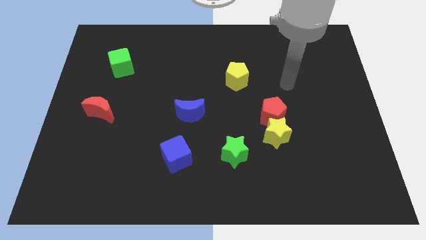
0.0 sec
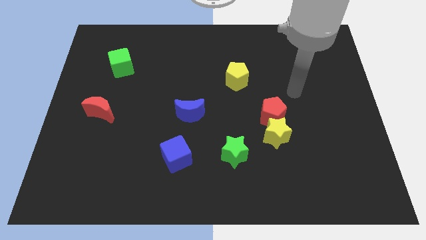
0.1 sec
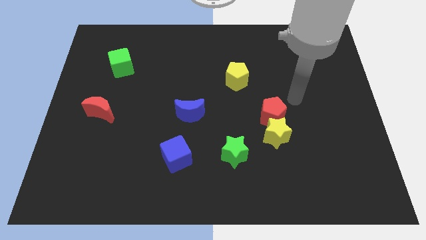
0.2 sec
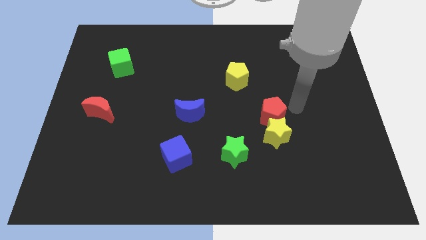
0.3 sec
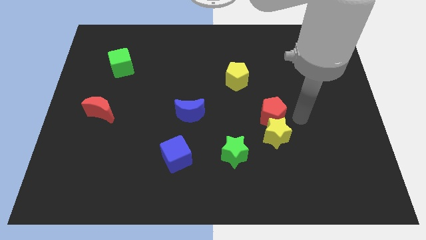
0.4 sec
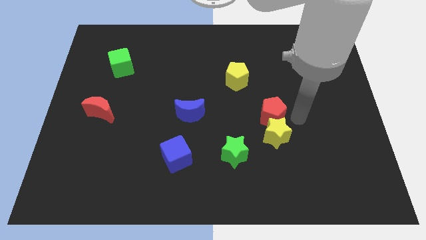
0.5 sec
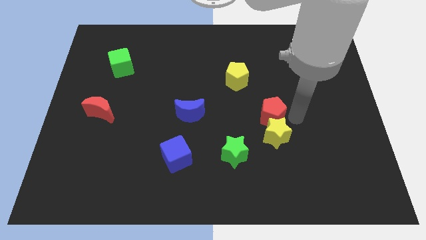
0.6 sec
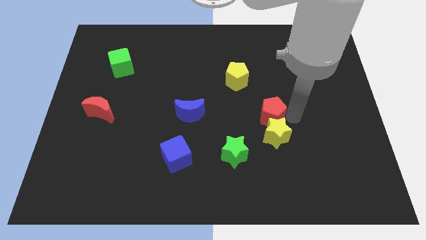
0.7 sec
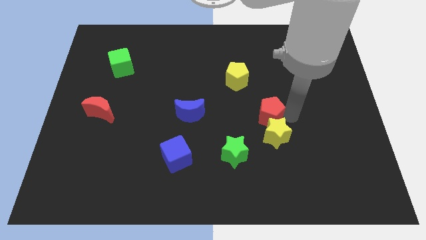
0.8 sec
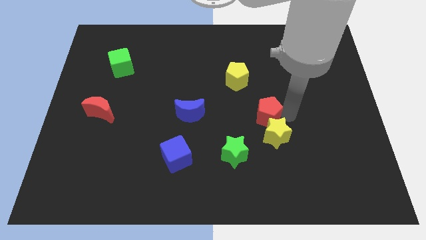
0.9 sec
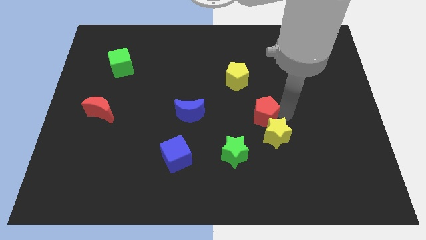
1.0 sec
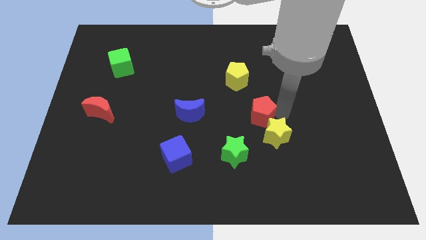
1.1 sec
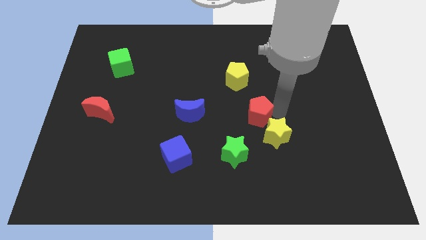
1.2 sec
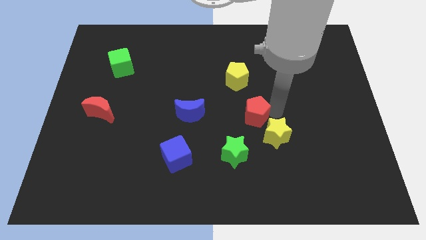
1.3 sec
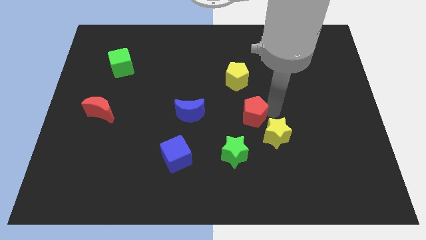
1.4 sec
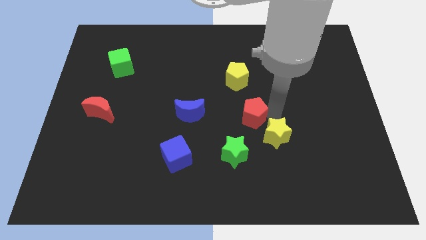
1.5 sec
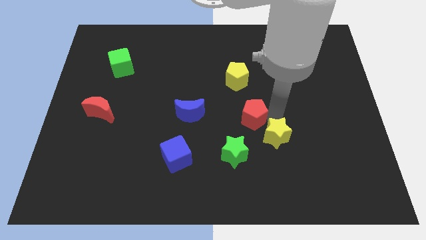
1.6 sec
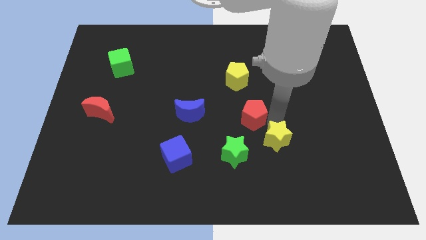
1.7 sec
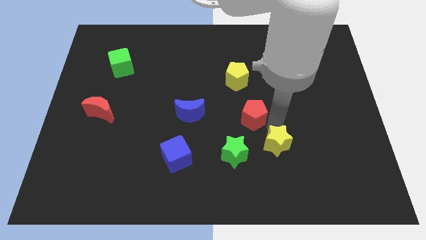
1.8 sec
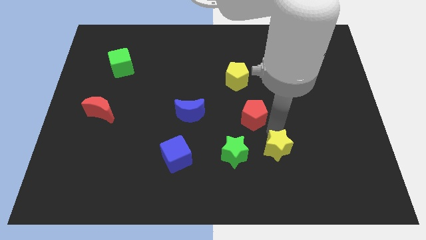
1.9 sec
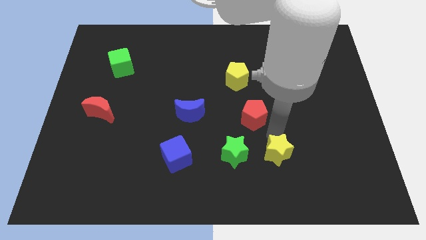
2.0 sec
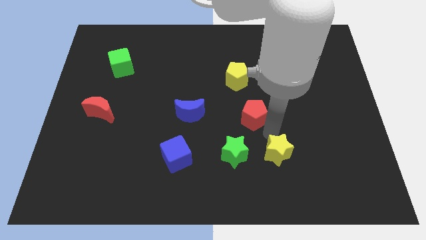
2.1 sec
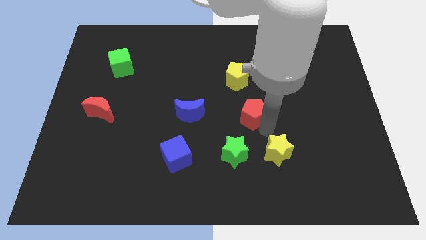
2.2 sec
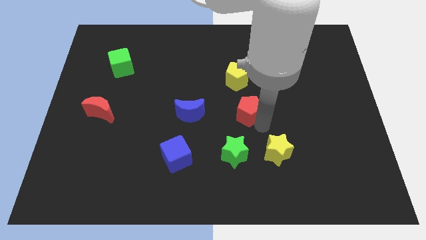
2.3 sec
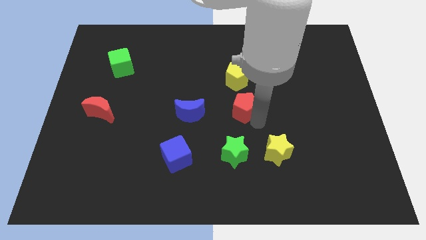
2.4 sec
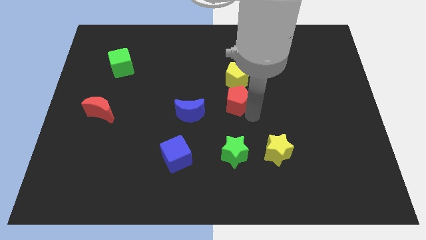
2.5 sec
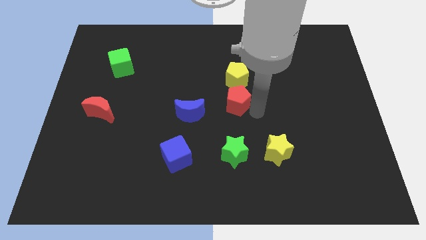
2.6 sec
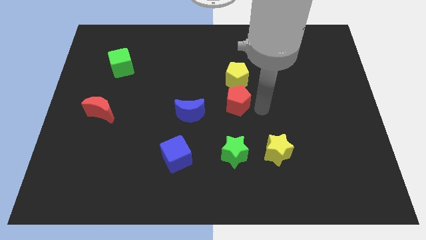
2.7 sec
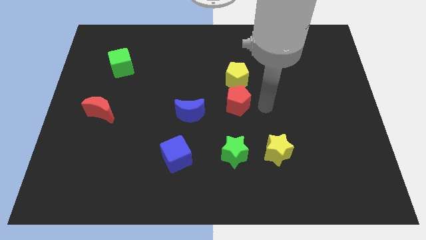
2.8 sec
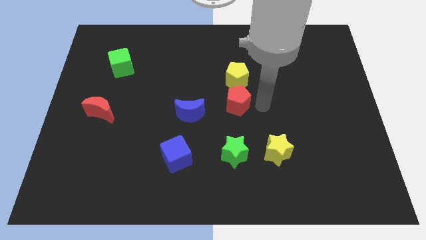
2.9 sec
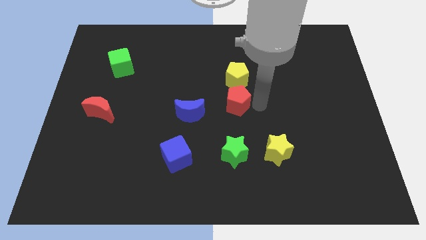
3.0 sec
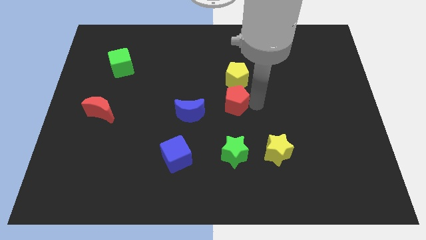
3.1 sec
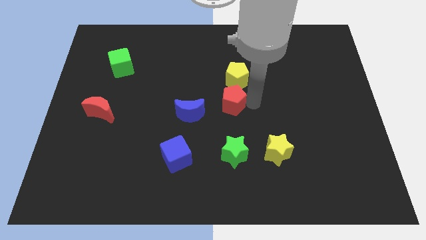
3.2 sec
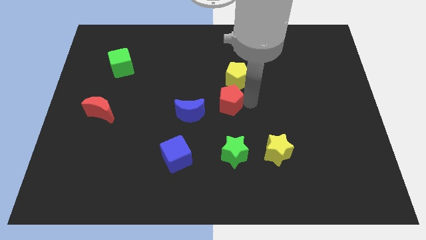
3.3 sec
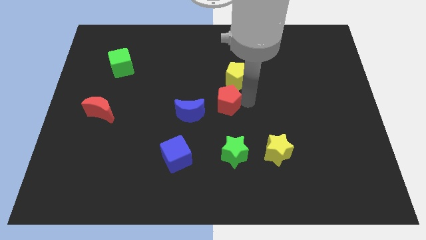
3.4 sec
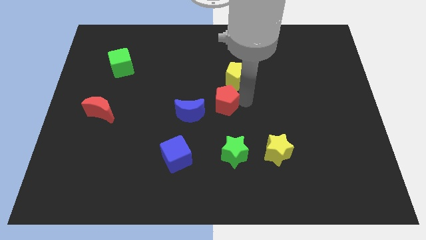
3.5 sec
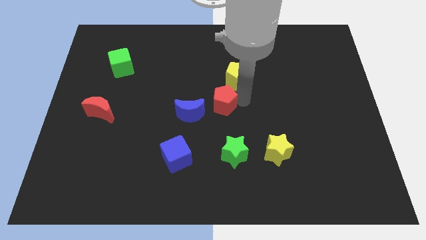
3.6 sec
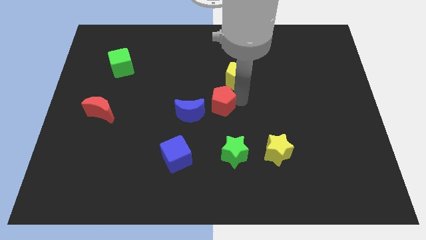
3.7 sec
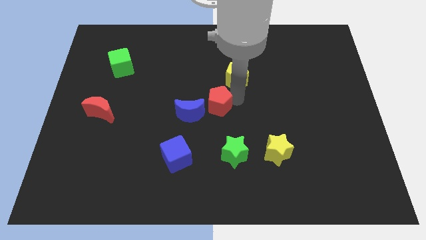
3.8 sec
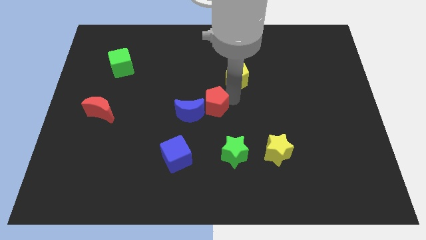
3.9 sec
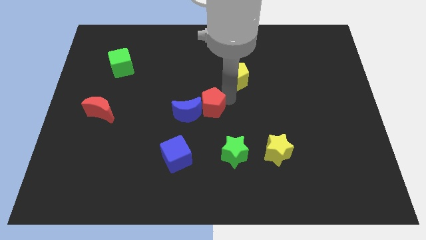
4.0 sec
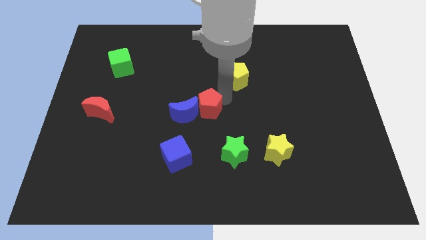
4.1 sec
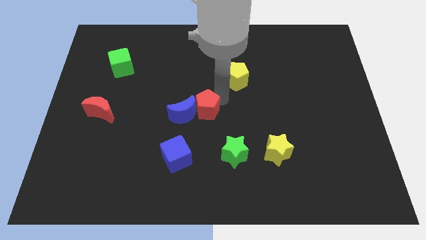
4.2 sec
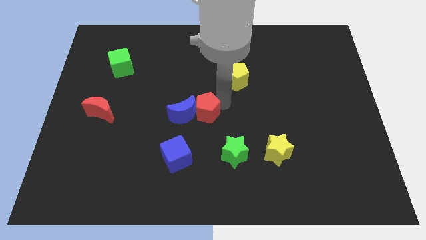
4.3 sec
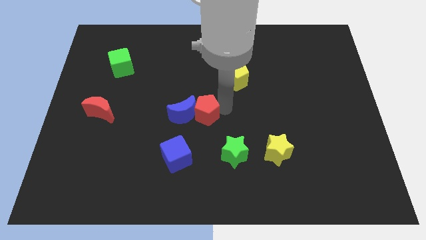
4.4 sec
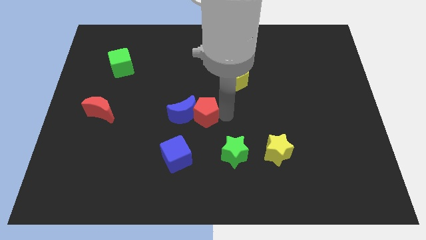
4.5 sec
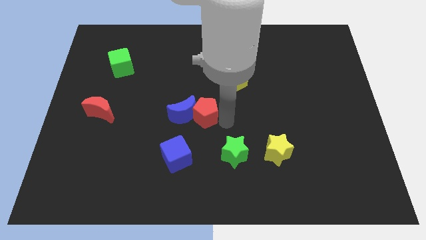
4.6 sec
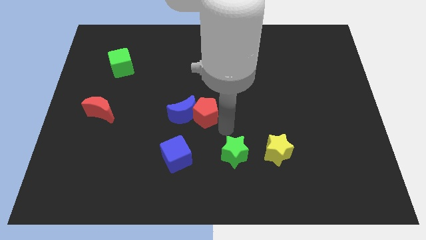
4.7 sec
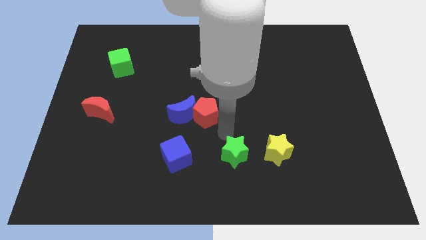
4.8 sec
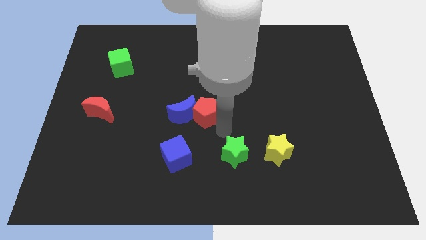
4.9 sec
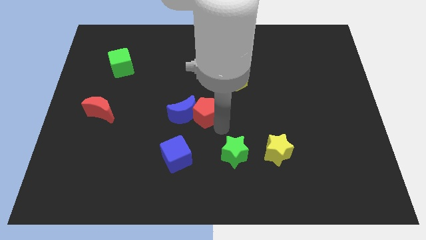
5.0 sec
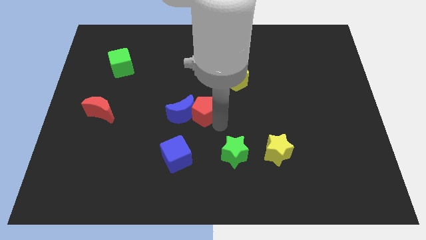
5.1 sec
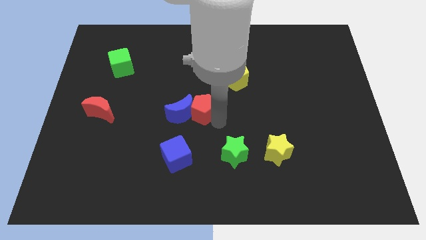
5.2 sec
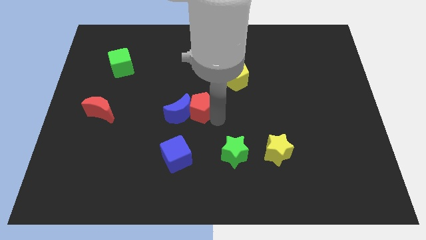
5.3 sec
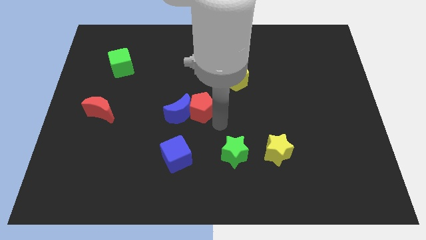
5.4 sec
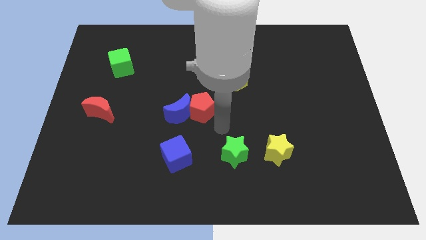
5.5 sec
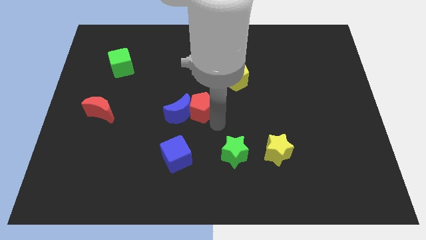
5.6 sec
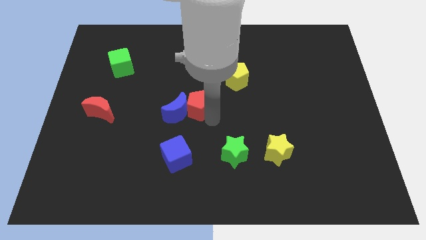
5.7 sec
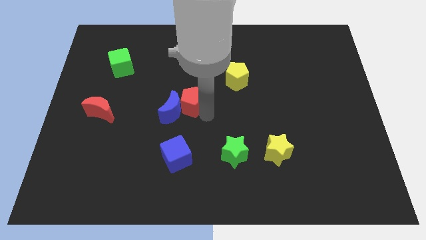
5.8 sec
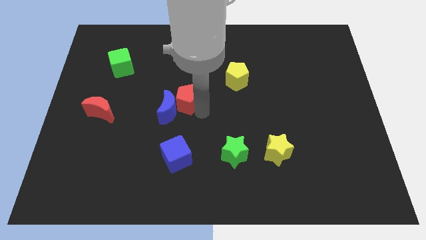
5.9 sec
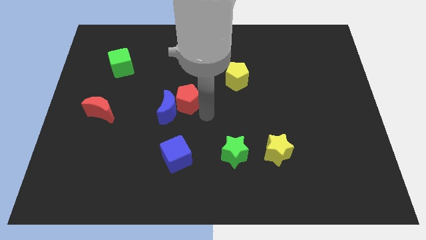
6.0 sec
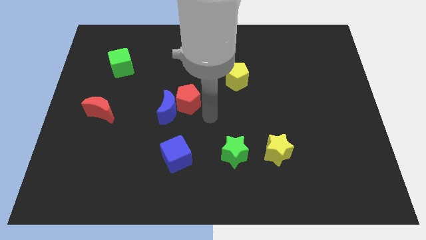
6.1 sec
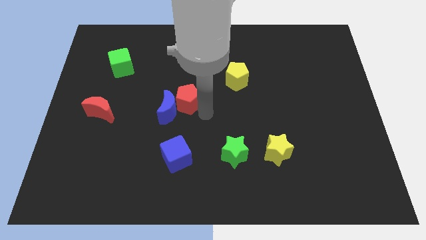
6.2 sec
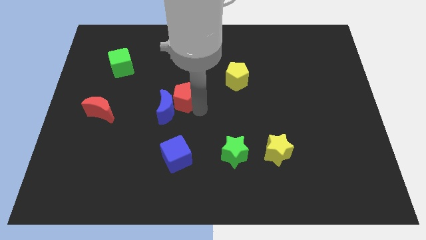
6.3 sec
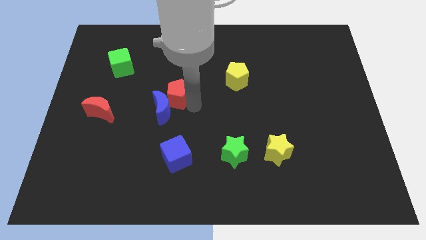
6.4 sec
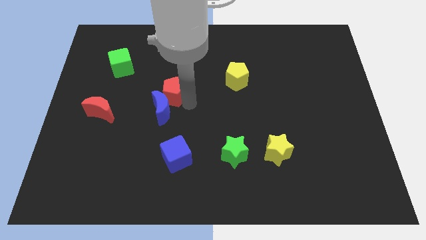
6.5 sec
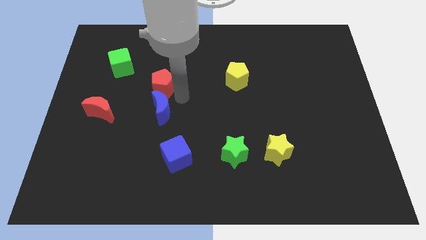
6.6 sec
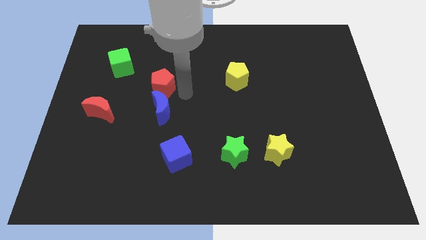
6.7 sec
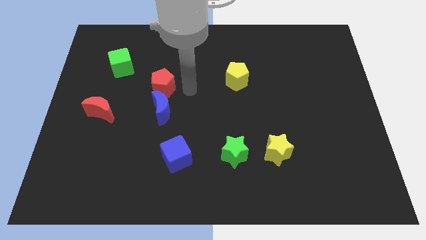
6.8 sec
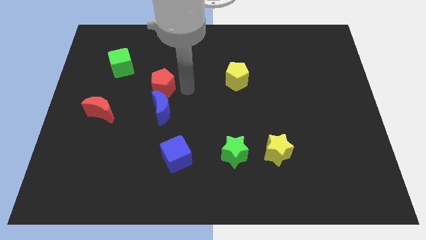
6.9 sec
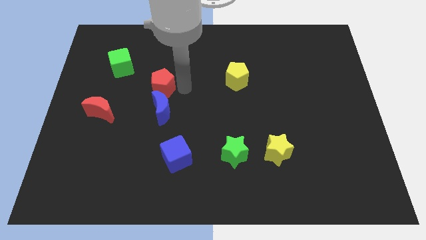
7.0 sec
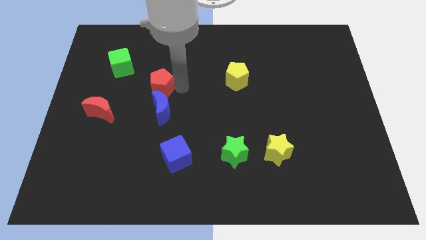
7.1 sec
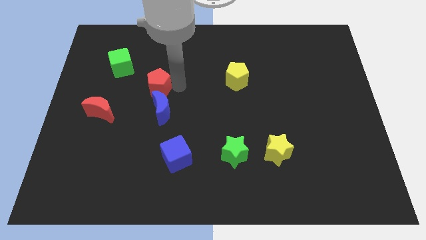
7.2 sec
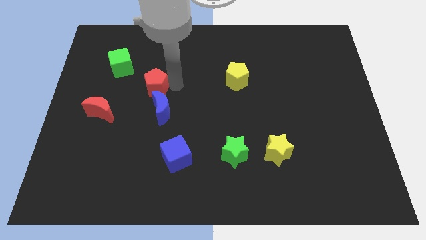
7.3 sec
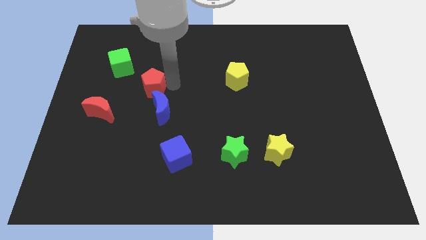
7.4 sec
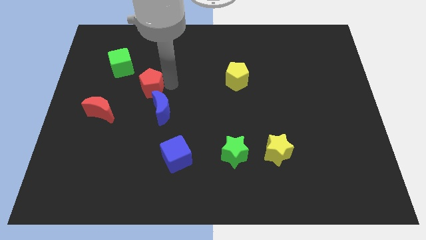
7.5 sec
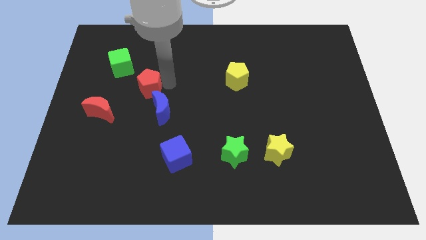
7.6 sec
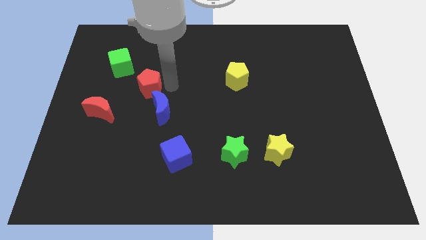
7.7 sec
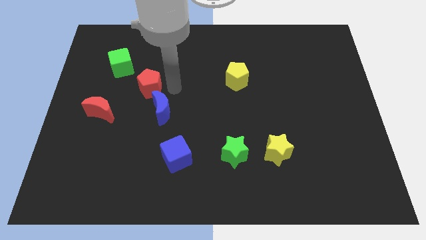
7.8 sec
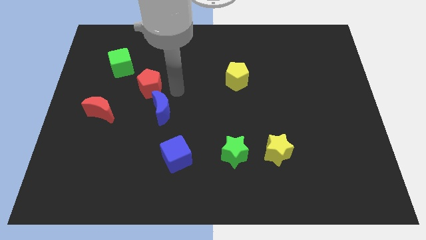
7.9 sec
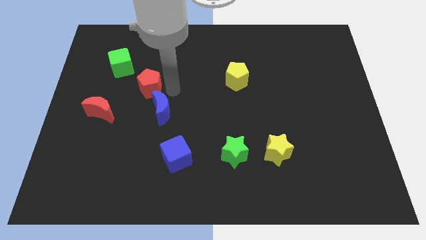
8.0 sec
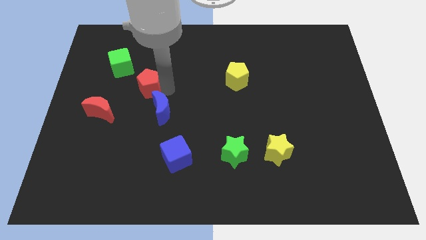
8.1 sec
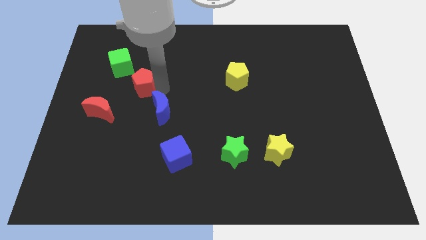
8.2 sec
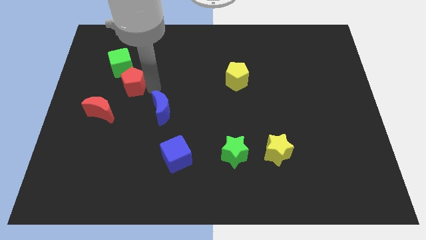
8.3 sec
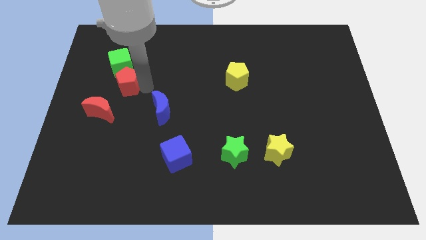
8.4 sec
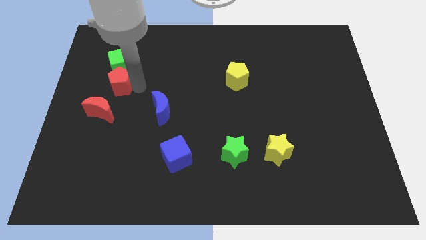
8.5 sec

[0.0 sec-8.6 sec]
put the red pentagon to the top of the red moon
